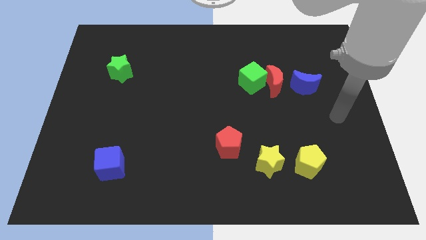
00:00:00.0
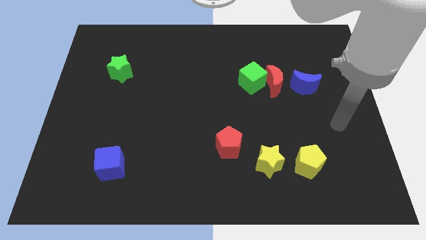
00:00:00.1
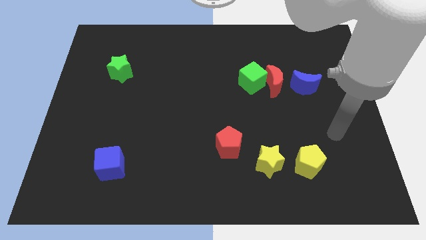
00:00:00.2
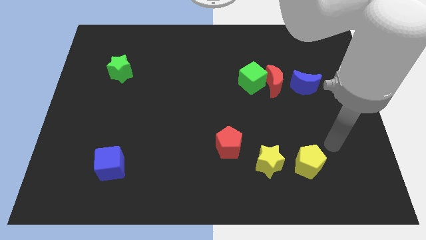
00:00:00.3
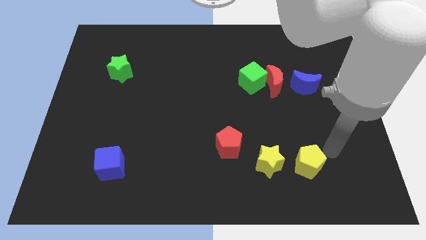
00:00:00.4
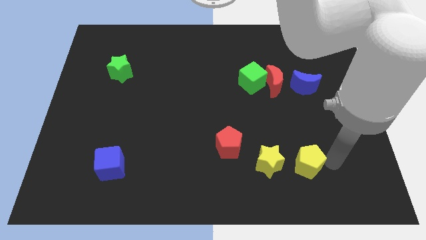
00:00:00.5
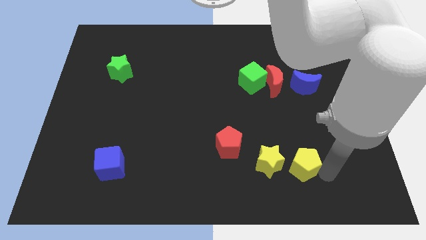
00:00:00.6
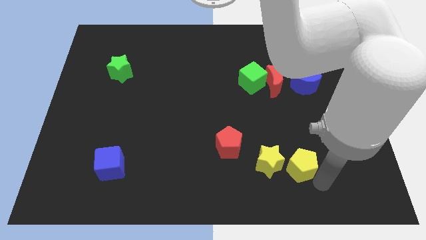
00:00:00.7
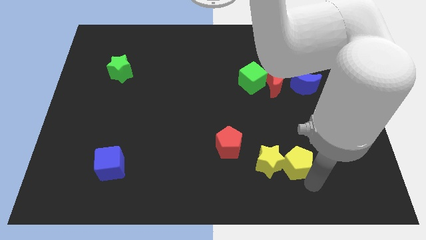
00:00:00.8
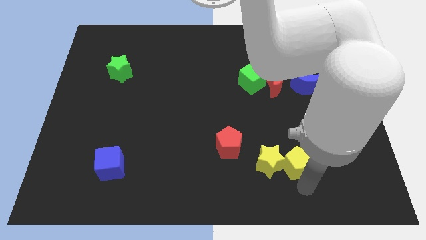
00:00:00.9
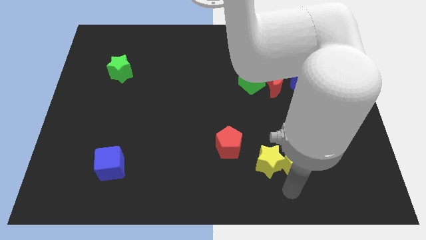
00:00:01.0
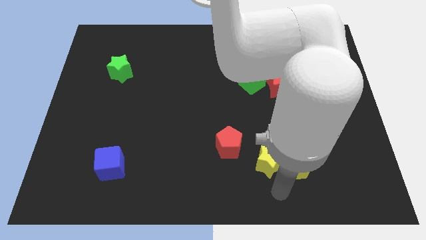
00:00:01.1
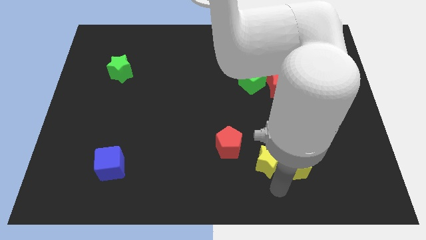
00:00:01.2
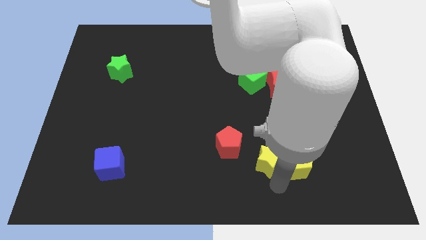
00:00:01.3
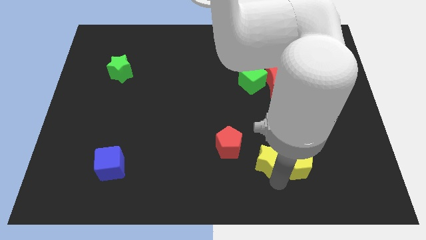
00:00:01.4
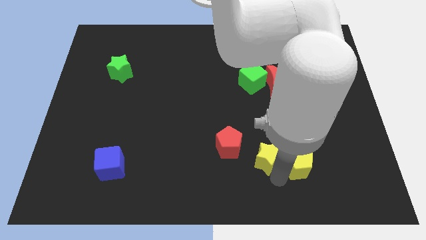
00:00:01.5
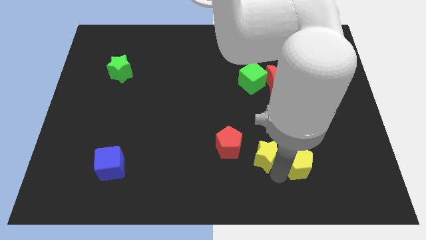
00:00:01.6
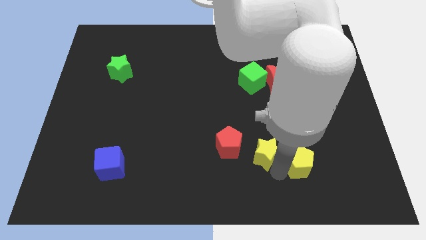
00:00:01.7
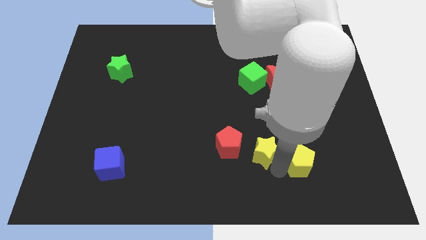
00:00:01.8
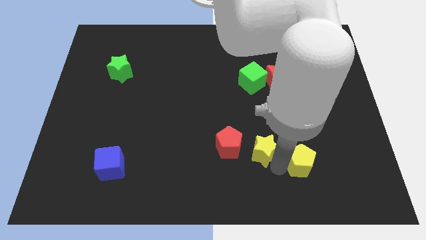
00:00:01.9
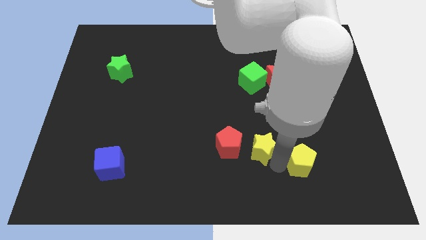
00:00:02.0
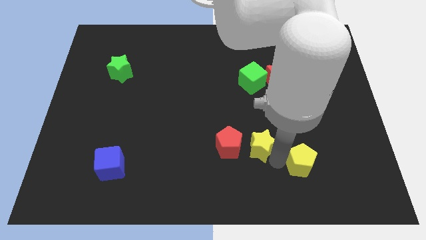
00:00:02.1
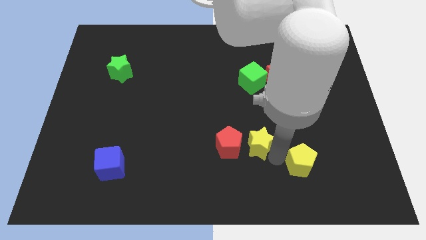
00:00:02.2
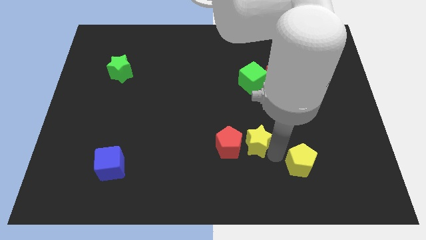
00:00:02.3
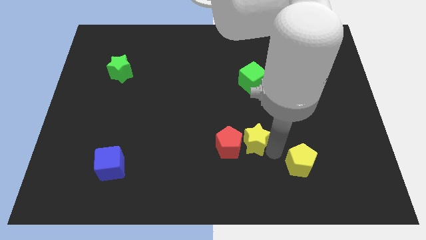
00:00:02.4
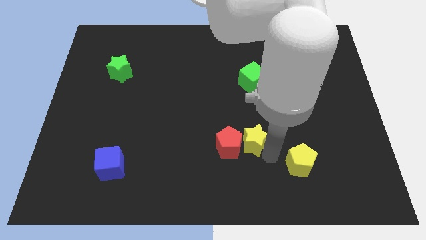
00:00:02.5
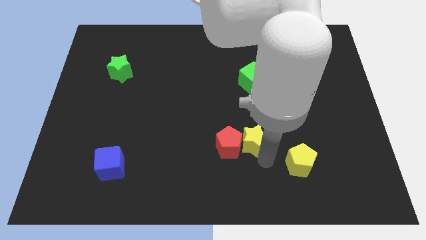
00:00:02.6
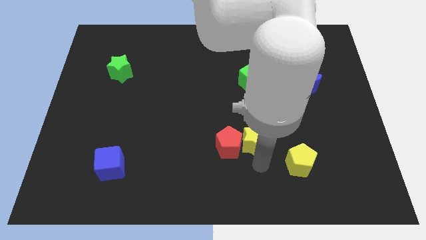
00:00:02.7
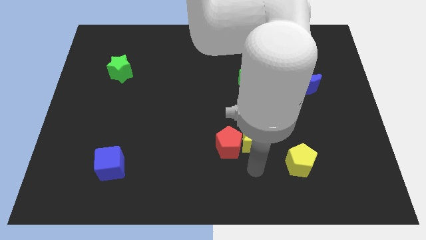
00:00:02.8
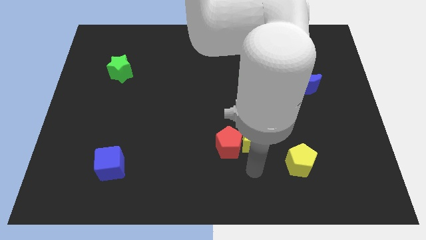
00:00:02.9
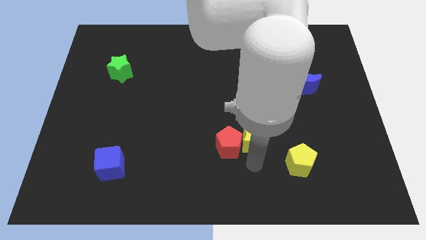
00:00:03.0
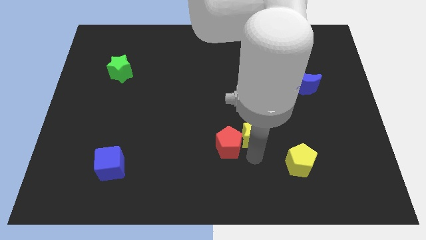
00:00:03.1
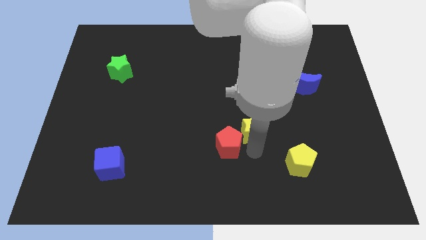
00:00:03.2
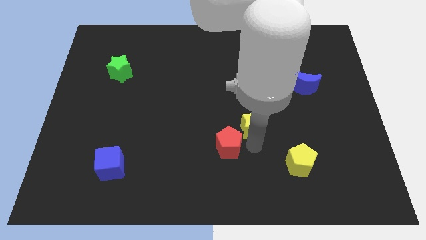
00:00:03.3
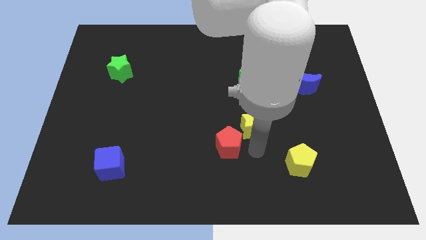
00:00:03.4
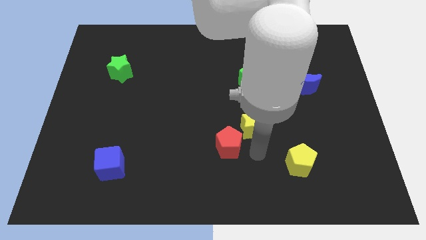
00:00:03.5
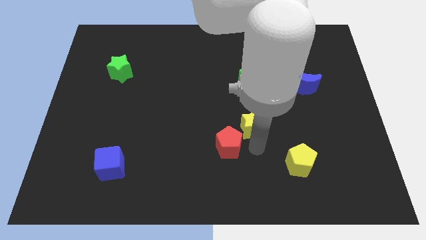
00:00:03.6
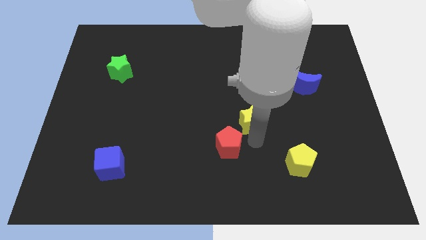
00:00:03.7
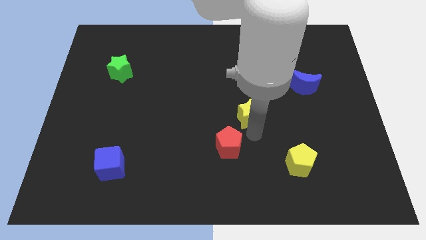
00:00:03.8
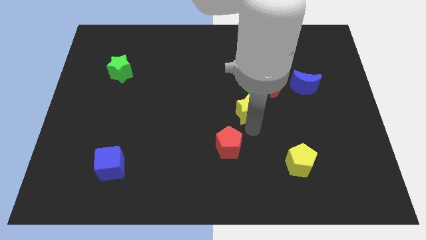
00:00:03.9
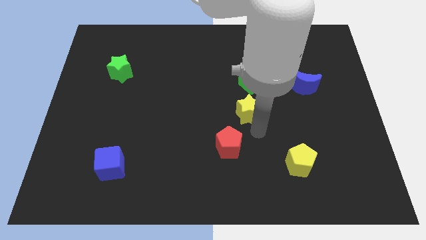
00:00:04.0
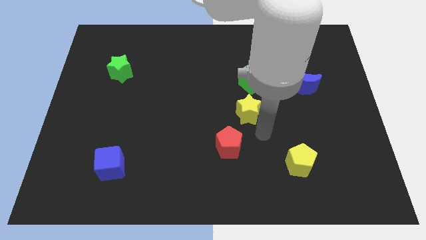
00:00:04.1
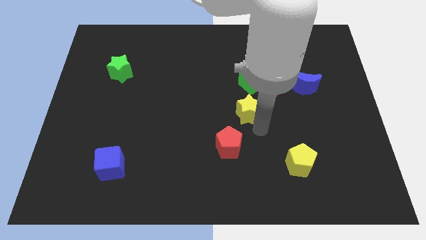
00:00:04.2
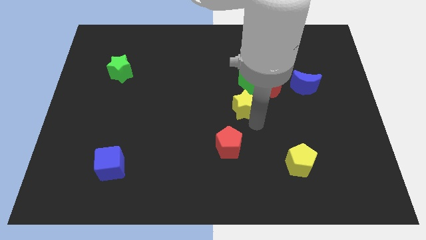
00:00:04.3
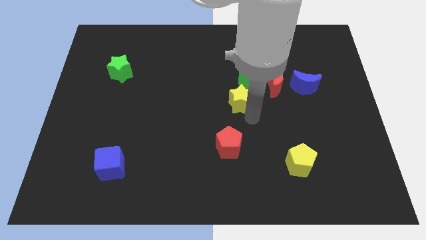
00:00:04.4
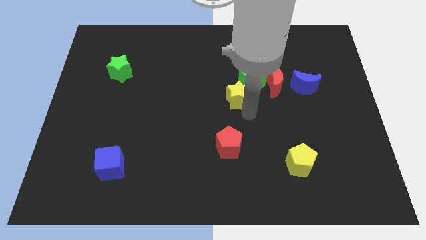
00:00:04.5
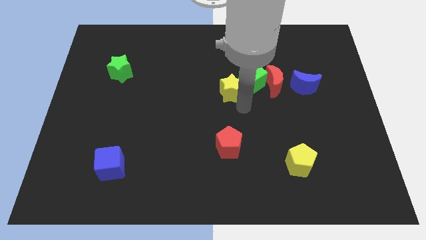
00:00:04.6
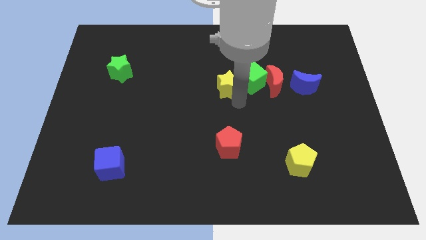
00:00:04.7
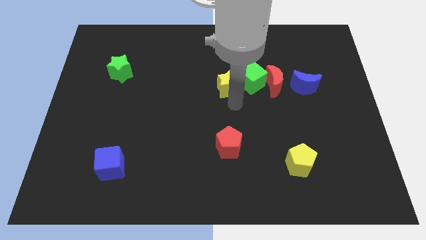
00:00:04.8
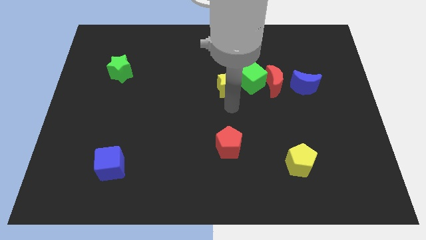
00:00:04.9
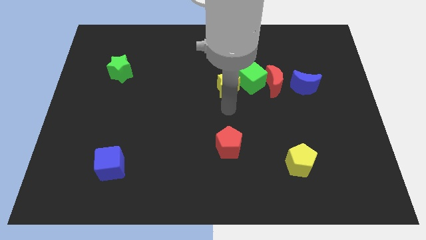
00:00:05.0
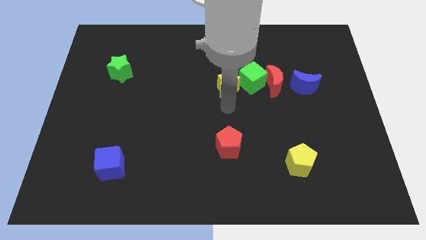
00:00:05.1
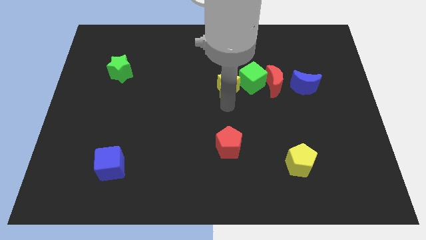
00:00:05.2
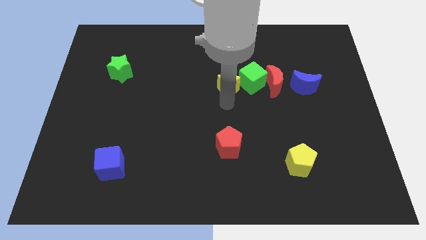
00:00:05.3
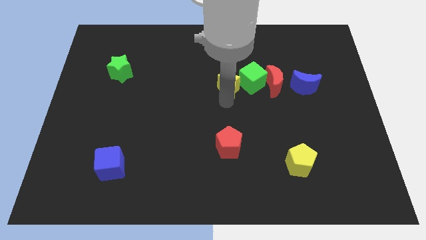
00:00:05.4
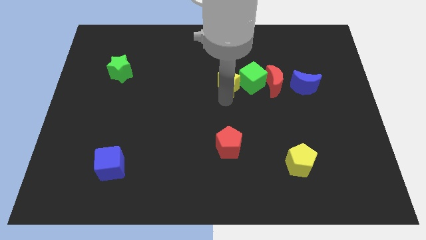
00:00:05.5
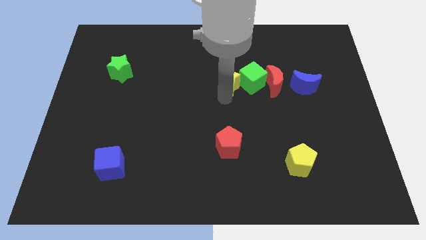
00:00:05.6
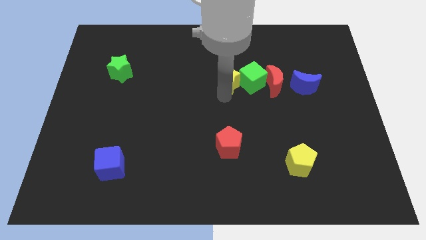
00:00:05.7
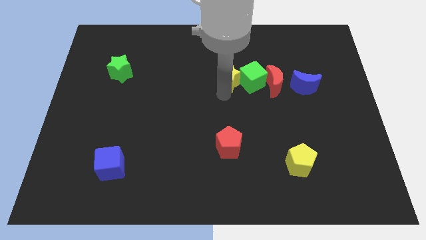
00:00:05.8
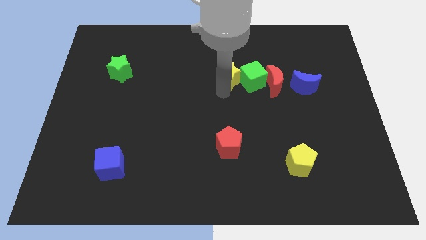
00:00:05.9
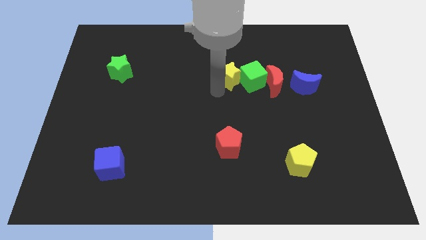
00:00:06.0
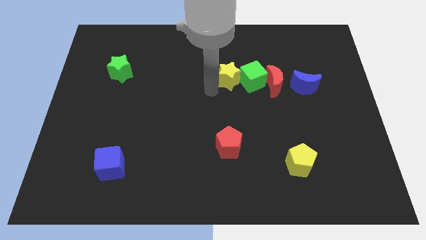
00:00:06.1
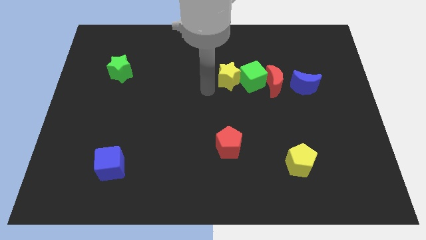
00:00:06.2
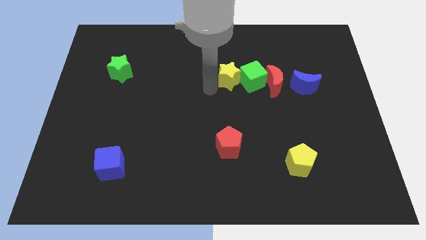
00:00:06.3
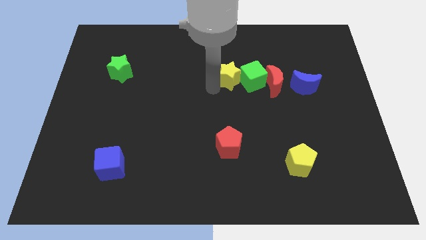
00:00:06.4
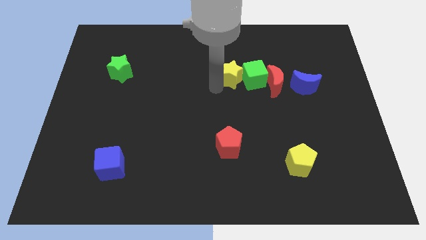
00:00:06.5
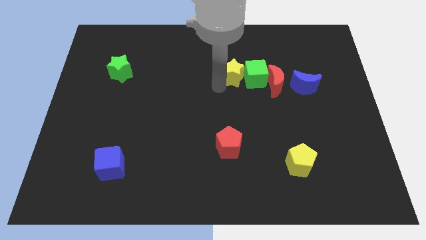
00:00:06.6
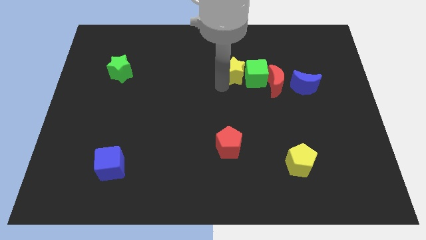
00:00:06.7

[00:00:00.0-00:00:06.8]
slide the yellow star to the top left side of the red moon

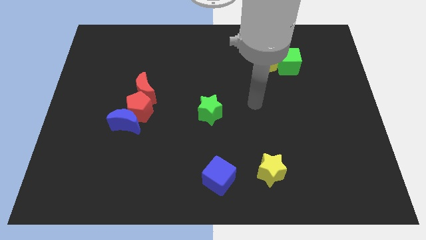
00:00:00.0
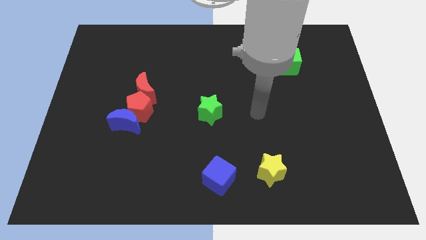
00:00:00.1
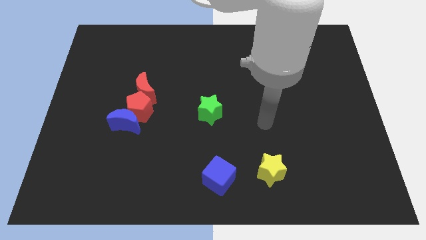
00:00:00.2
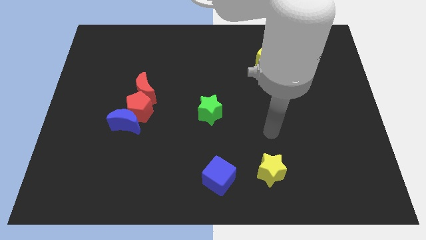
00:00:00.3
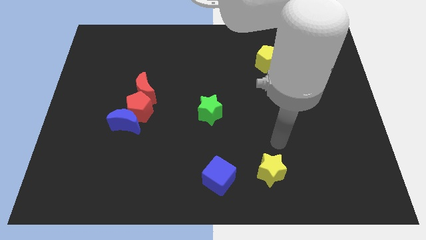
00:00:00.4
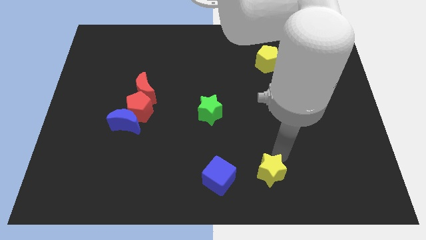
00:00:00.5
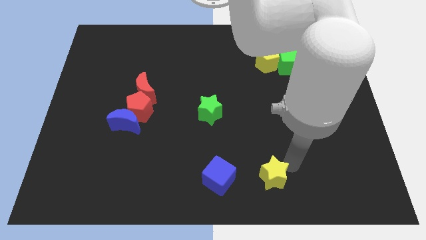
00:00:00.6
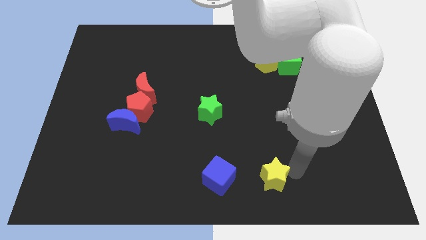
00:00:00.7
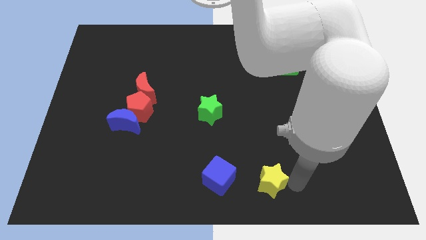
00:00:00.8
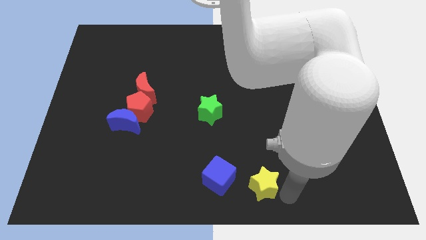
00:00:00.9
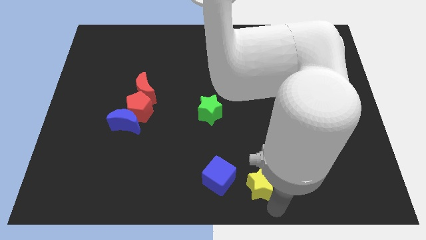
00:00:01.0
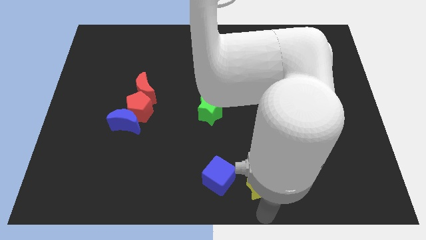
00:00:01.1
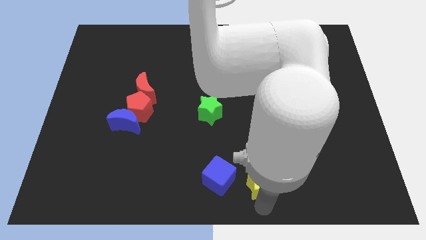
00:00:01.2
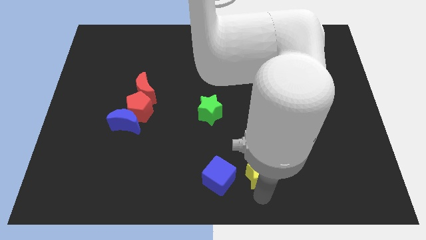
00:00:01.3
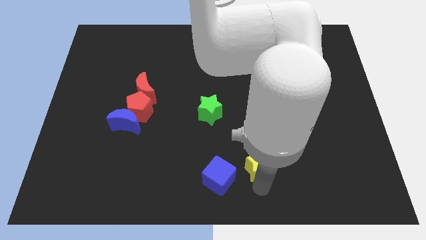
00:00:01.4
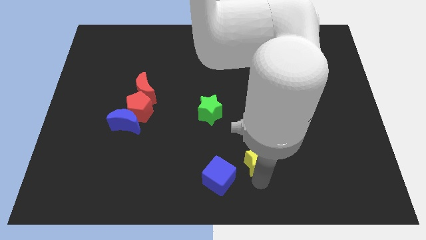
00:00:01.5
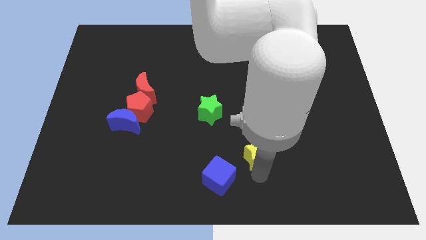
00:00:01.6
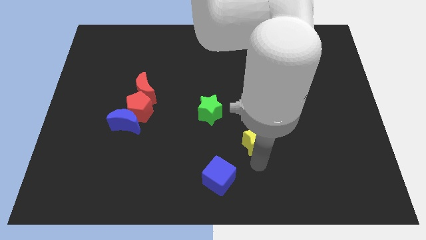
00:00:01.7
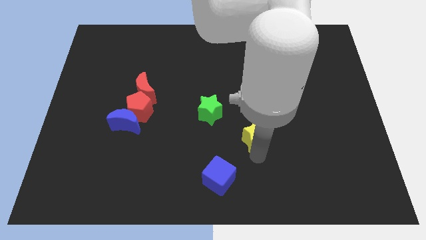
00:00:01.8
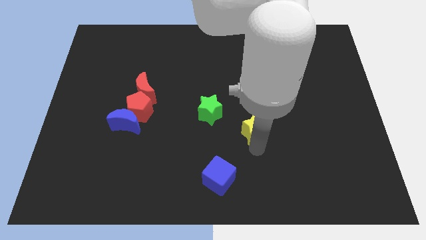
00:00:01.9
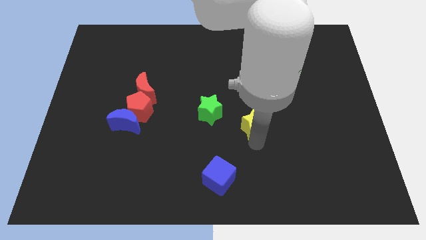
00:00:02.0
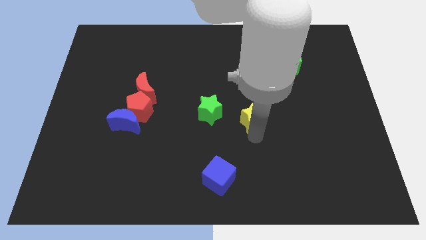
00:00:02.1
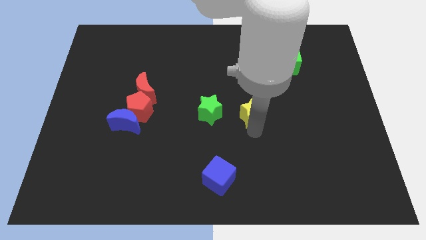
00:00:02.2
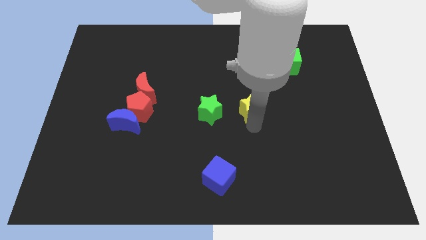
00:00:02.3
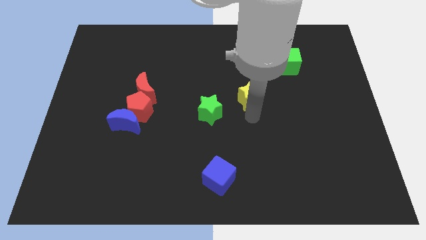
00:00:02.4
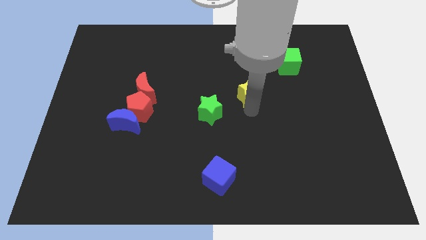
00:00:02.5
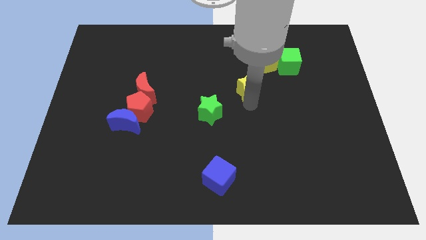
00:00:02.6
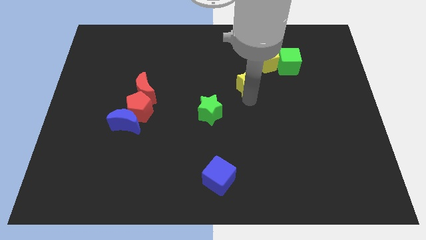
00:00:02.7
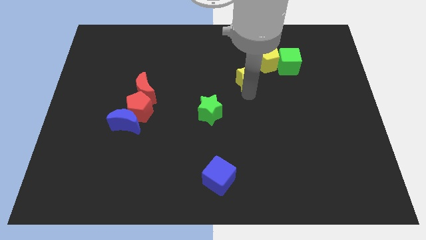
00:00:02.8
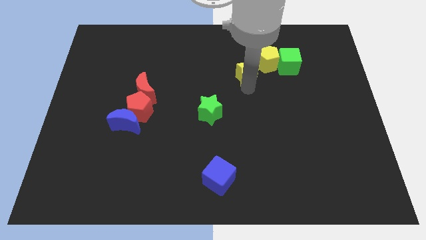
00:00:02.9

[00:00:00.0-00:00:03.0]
slide the yellow star left of the green cube
